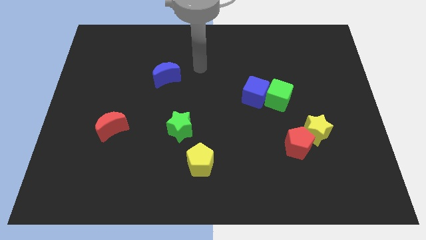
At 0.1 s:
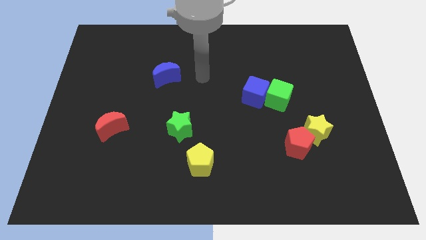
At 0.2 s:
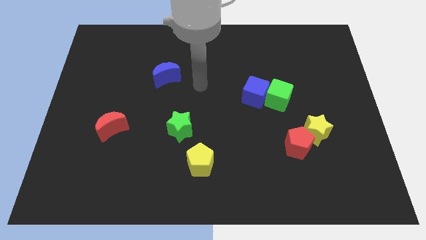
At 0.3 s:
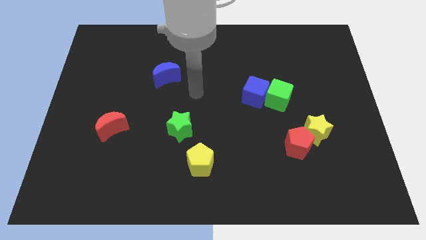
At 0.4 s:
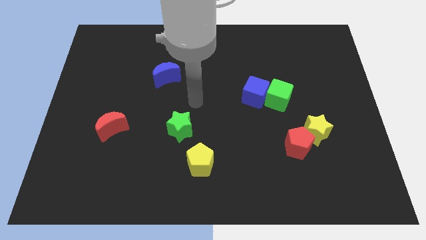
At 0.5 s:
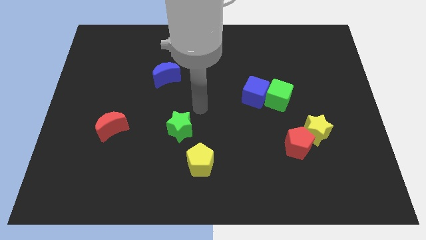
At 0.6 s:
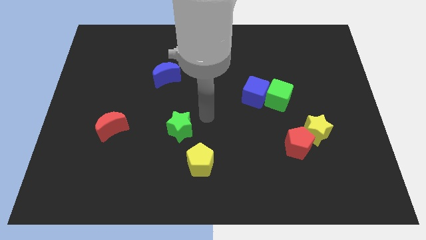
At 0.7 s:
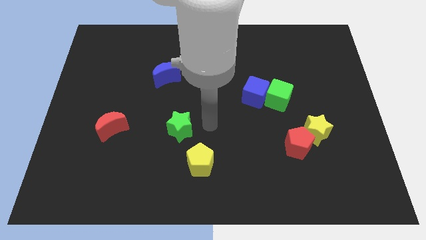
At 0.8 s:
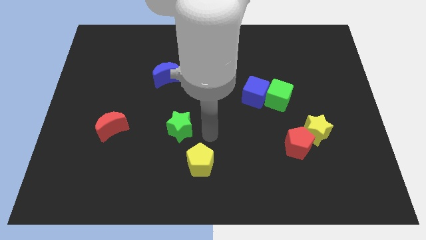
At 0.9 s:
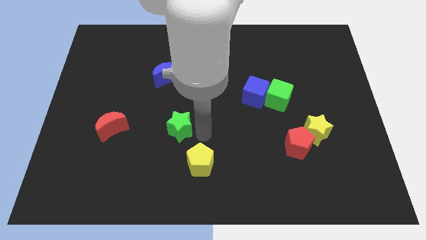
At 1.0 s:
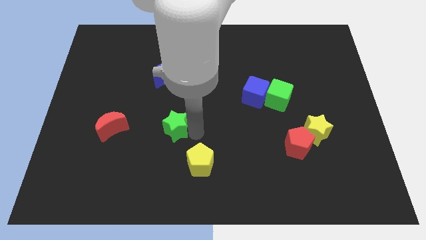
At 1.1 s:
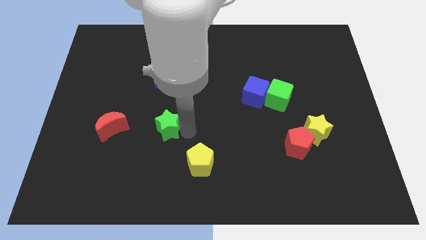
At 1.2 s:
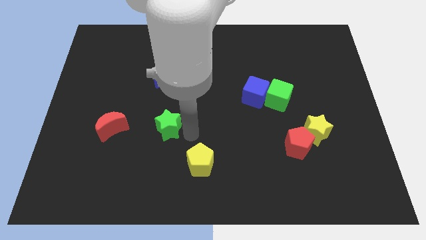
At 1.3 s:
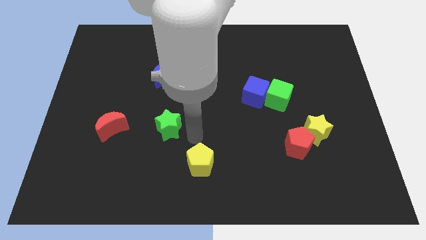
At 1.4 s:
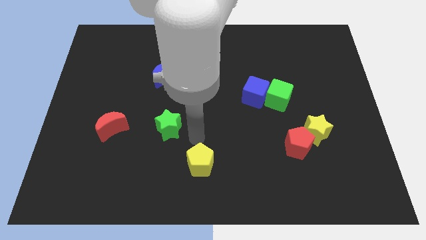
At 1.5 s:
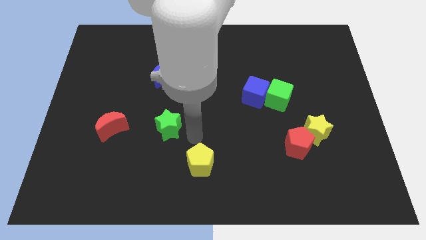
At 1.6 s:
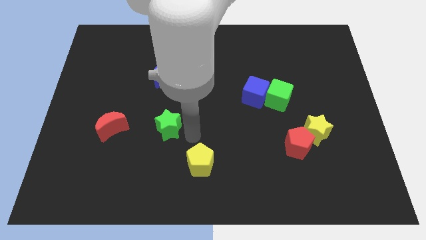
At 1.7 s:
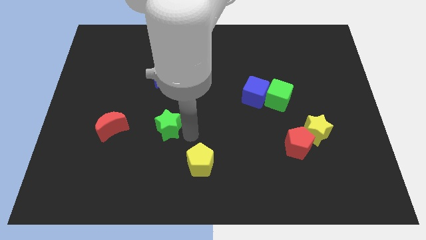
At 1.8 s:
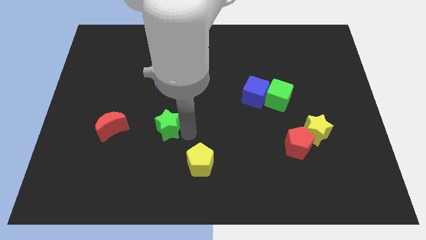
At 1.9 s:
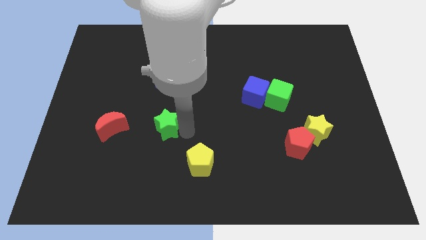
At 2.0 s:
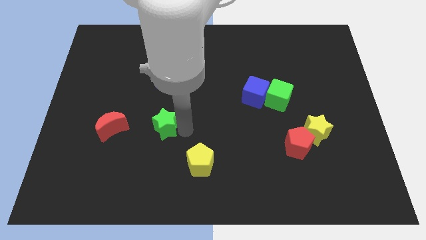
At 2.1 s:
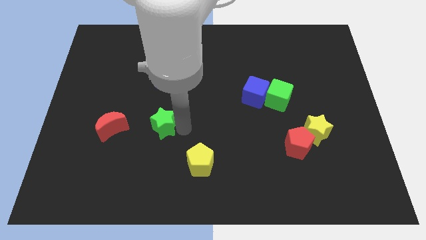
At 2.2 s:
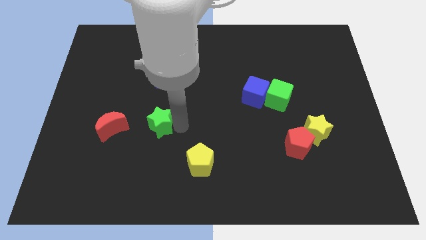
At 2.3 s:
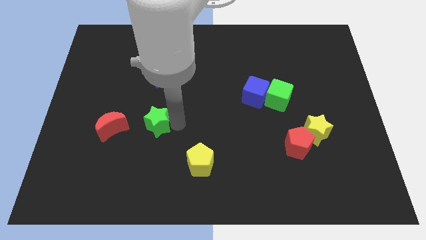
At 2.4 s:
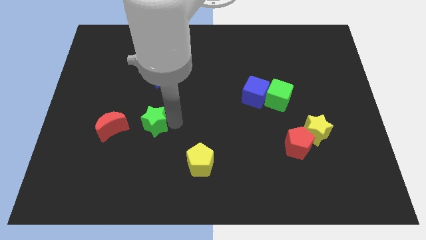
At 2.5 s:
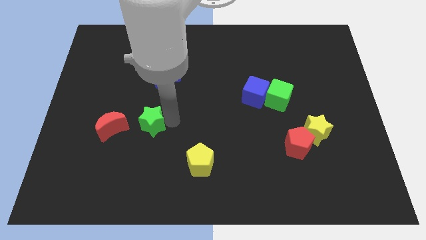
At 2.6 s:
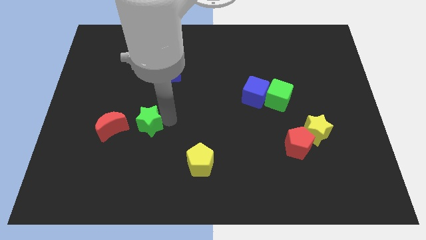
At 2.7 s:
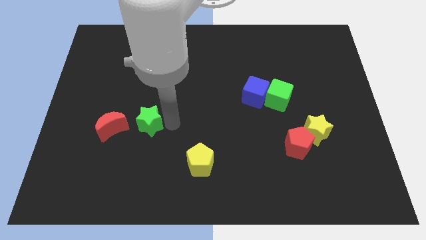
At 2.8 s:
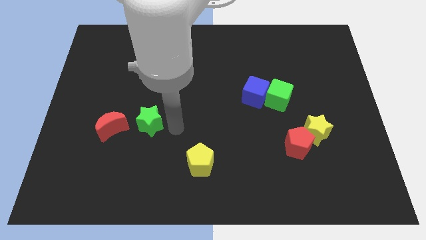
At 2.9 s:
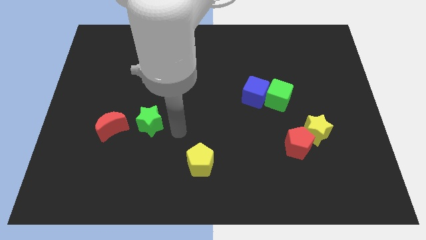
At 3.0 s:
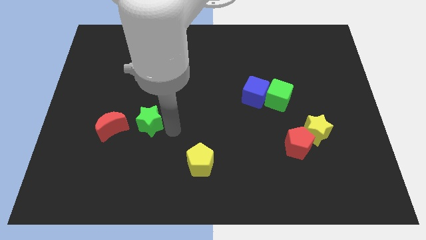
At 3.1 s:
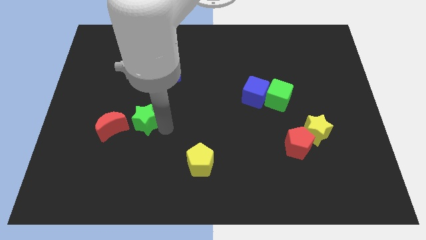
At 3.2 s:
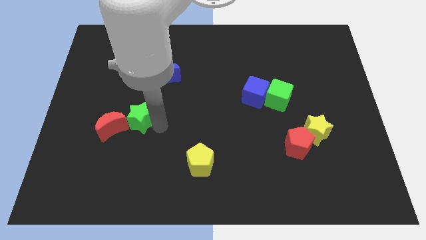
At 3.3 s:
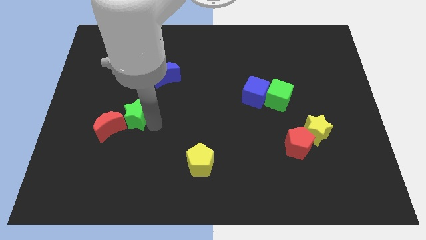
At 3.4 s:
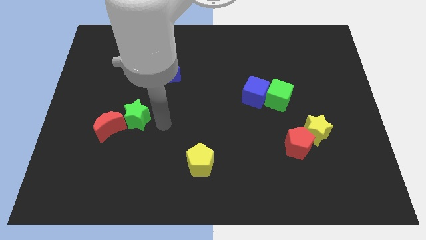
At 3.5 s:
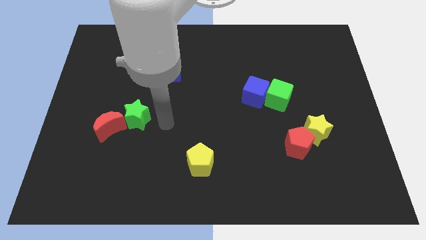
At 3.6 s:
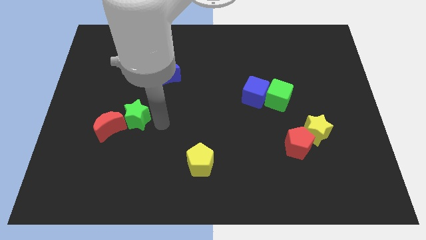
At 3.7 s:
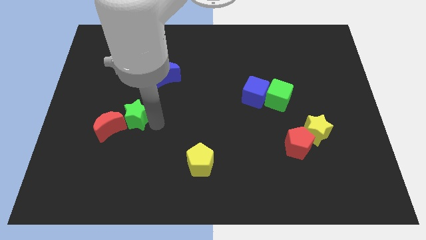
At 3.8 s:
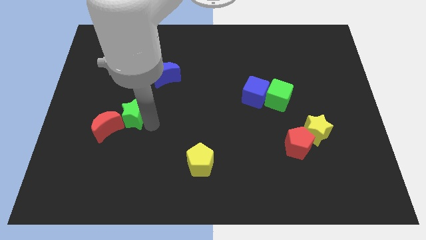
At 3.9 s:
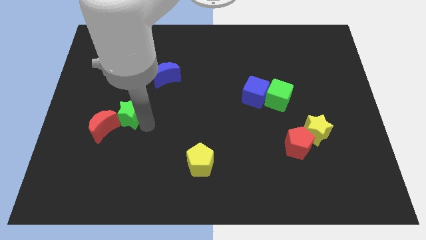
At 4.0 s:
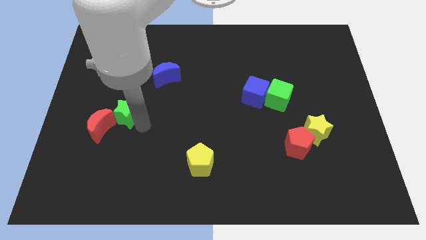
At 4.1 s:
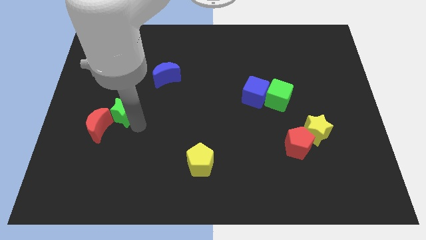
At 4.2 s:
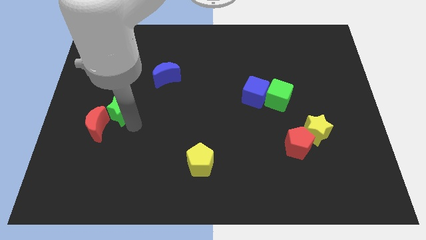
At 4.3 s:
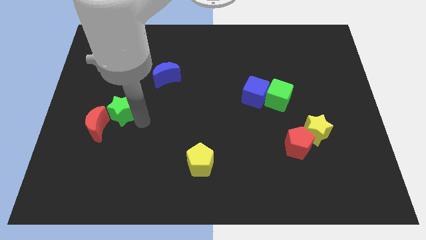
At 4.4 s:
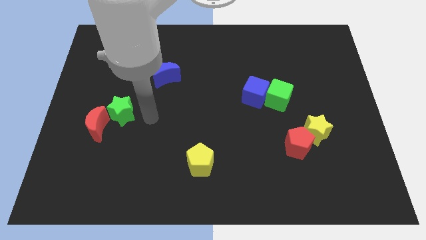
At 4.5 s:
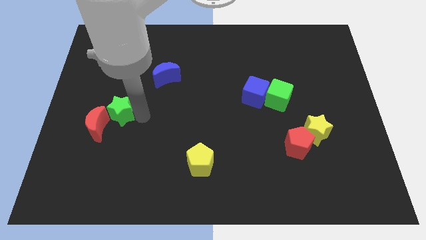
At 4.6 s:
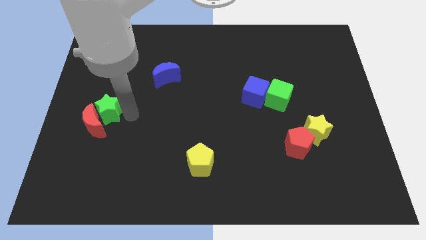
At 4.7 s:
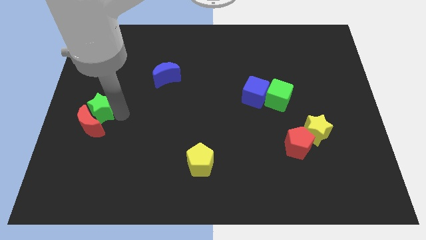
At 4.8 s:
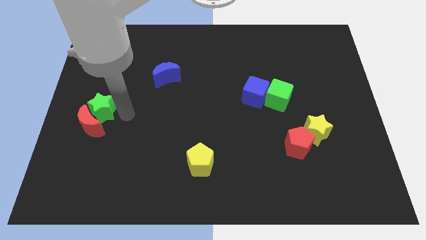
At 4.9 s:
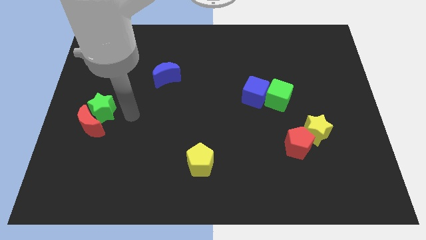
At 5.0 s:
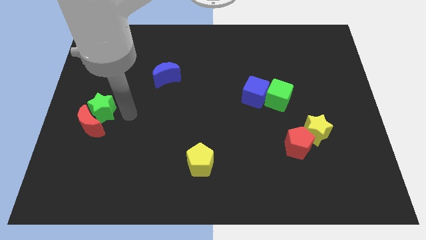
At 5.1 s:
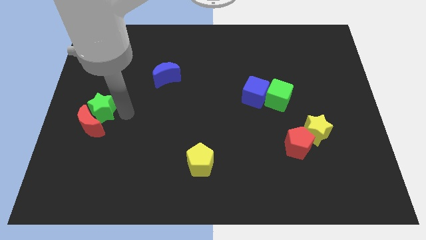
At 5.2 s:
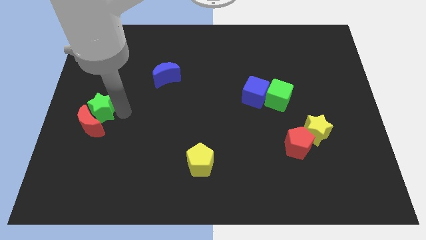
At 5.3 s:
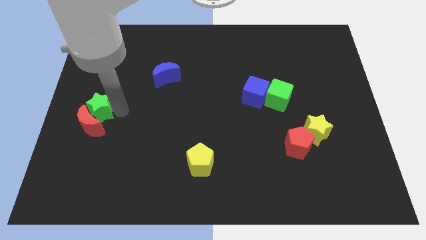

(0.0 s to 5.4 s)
put the green star to the top left side of the red moon

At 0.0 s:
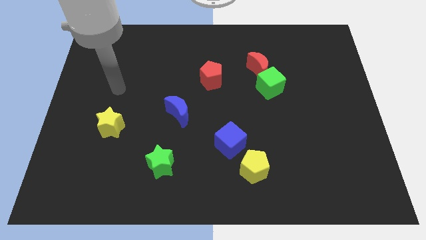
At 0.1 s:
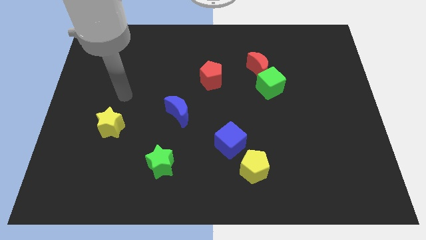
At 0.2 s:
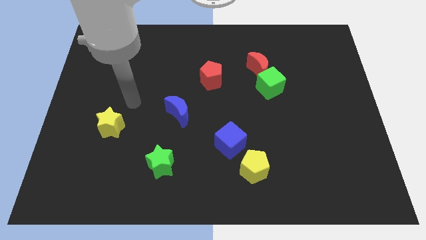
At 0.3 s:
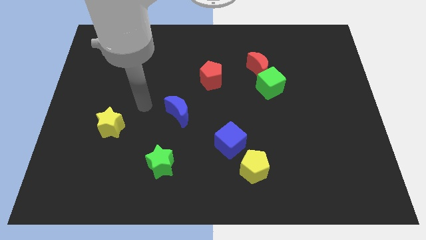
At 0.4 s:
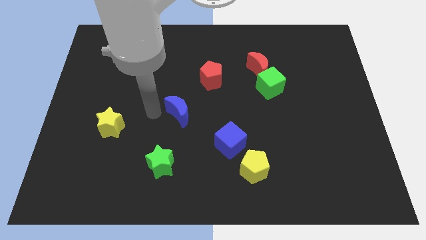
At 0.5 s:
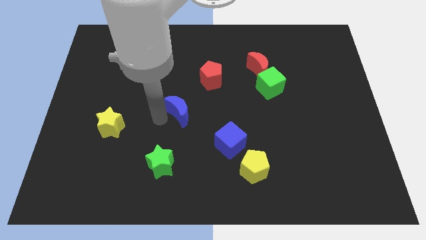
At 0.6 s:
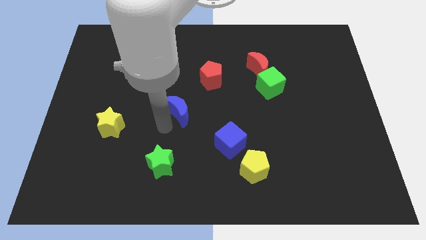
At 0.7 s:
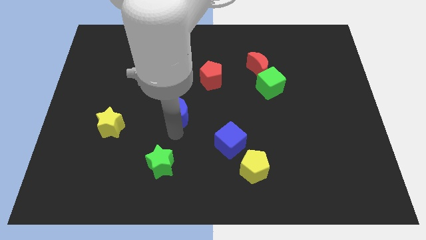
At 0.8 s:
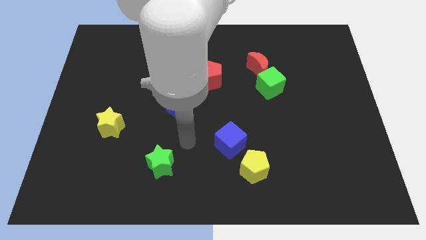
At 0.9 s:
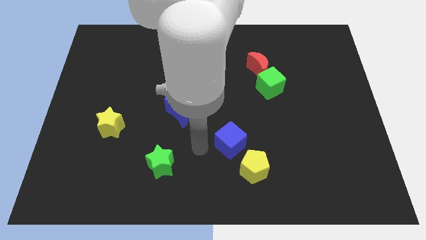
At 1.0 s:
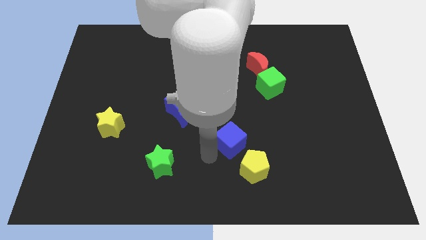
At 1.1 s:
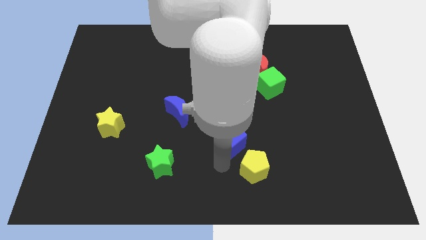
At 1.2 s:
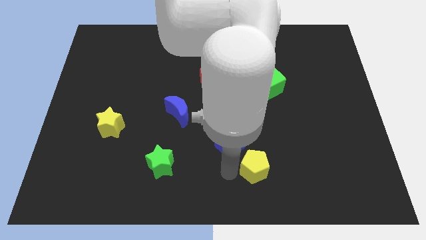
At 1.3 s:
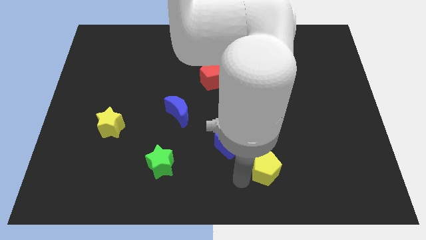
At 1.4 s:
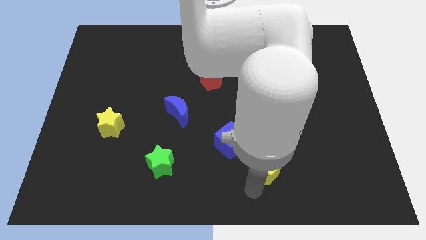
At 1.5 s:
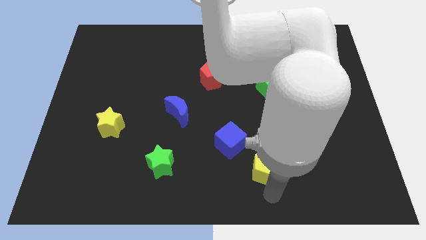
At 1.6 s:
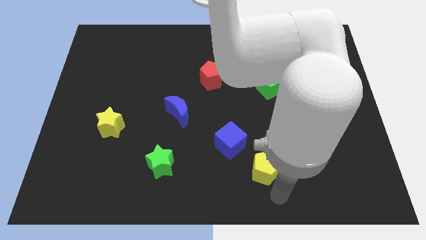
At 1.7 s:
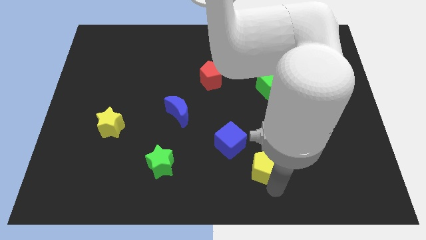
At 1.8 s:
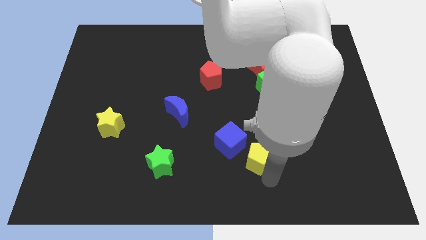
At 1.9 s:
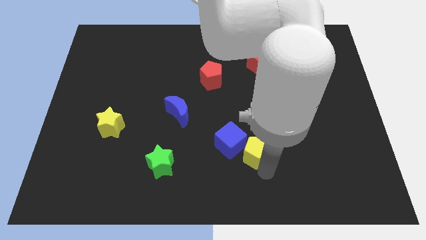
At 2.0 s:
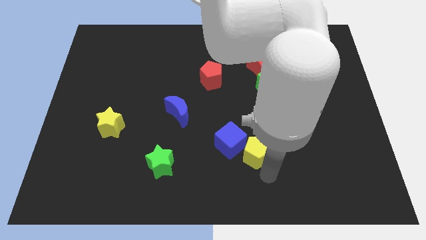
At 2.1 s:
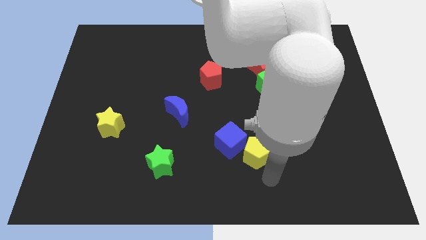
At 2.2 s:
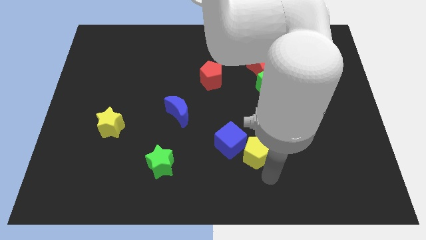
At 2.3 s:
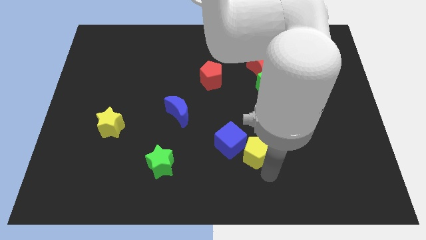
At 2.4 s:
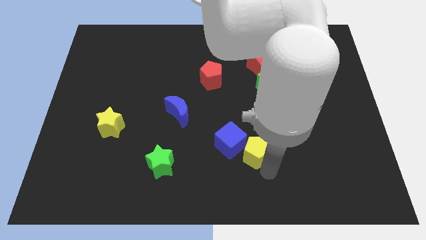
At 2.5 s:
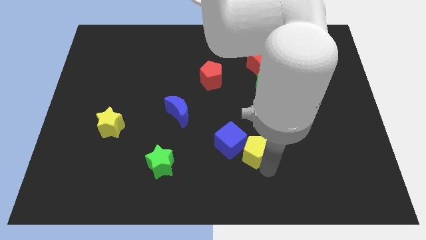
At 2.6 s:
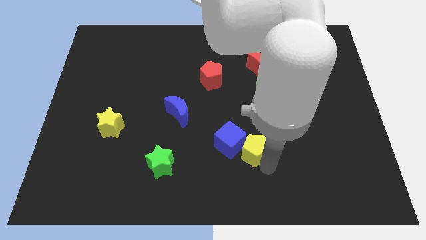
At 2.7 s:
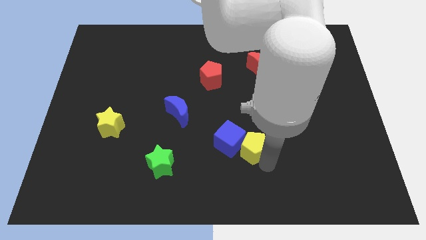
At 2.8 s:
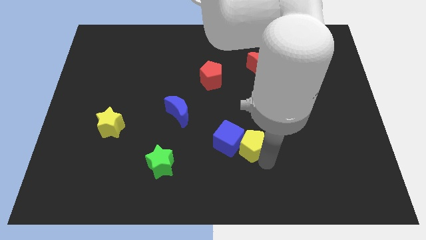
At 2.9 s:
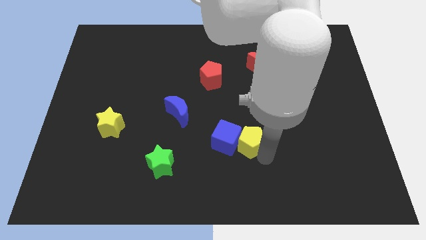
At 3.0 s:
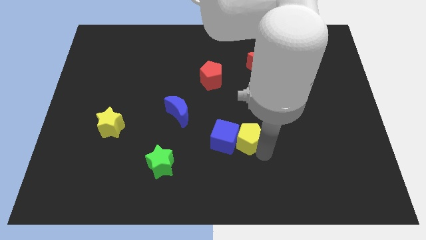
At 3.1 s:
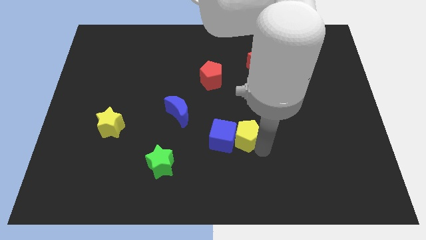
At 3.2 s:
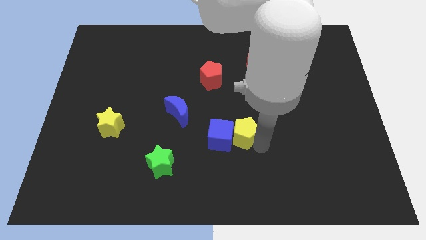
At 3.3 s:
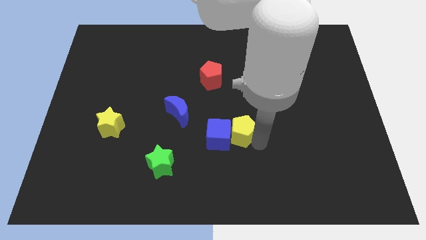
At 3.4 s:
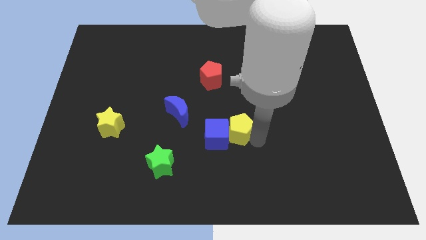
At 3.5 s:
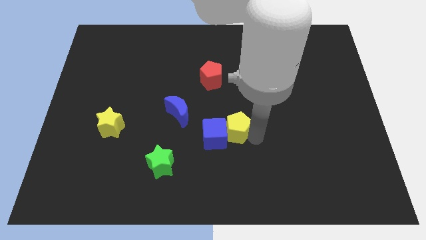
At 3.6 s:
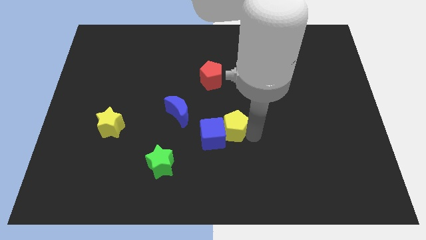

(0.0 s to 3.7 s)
push the yellow pentagon right of the blue moon
